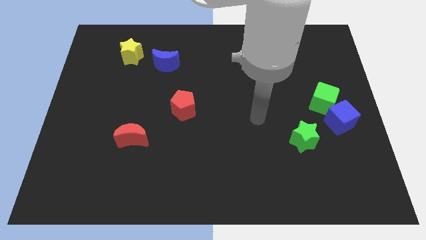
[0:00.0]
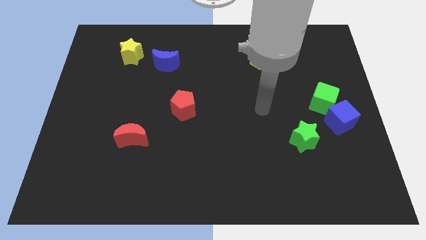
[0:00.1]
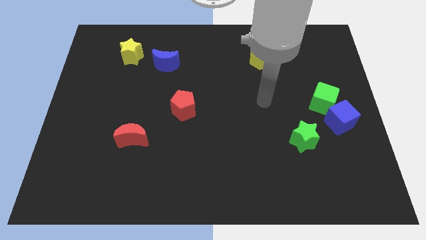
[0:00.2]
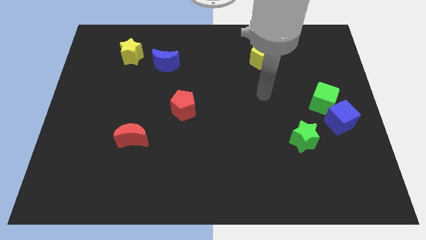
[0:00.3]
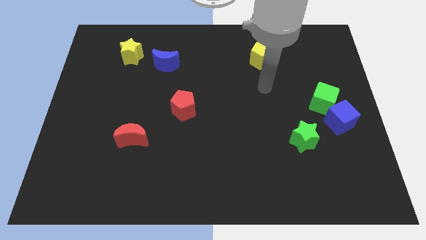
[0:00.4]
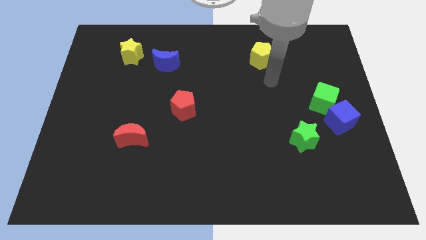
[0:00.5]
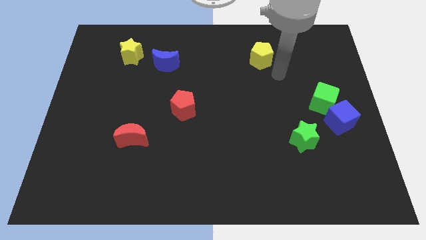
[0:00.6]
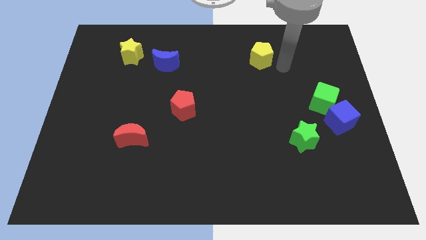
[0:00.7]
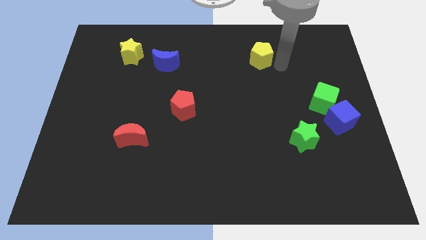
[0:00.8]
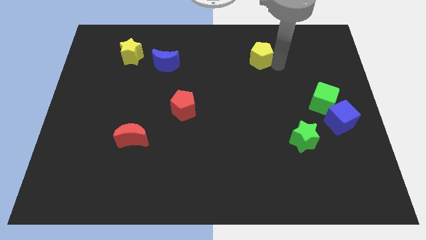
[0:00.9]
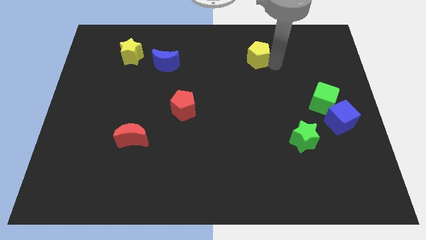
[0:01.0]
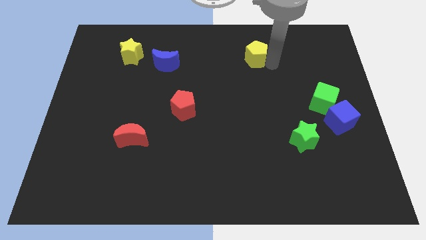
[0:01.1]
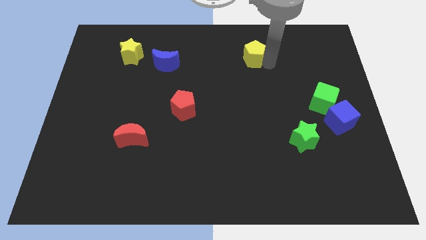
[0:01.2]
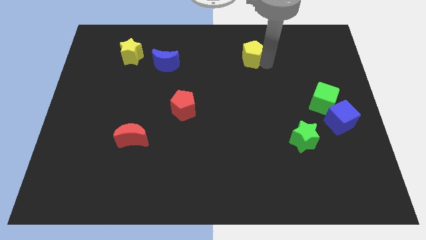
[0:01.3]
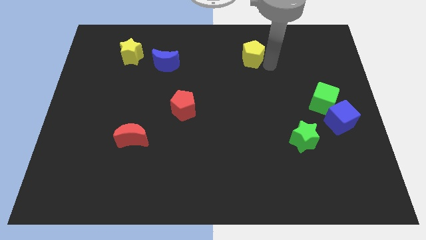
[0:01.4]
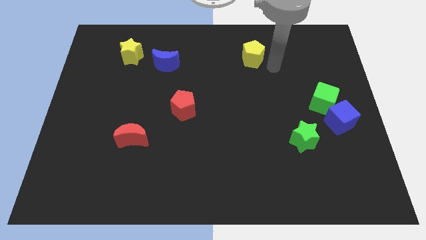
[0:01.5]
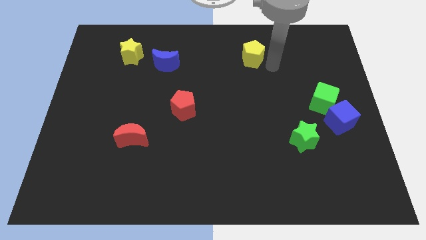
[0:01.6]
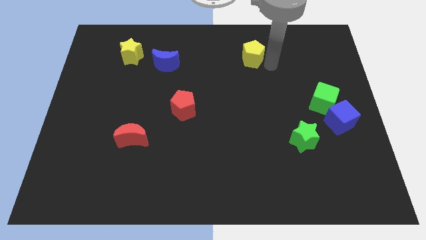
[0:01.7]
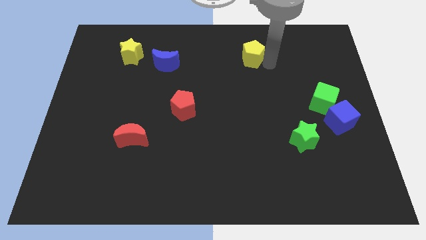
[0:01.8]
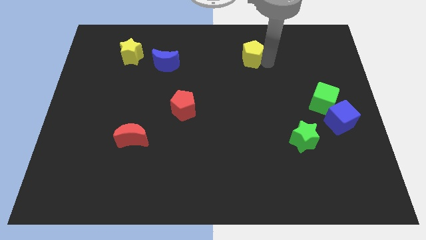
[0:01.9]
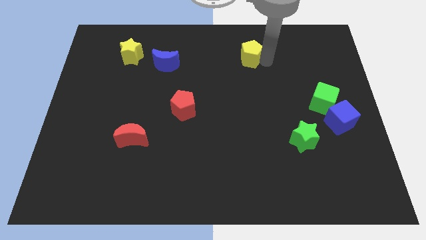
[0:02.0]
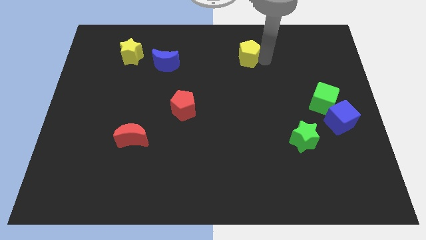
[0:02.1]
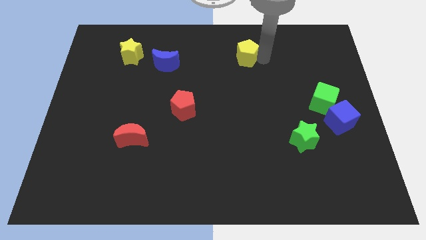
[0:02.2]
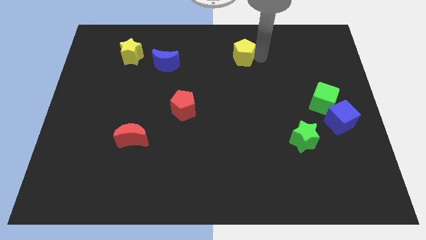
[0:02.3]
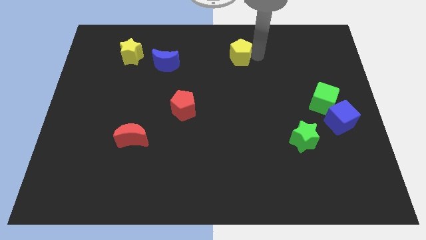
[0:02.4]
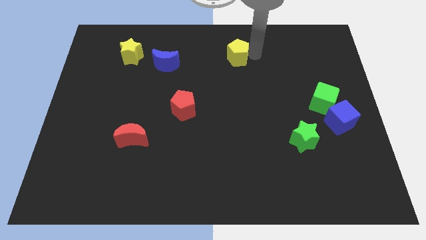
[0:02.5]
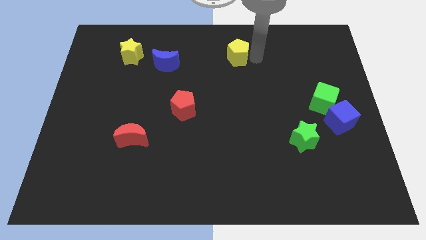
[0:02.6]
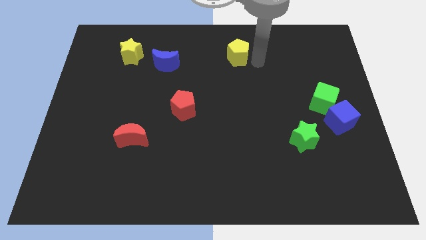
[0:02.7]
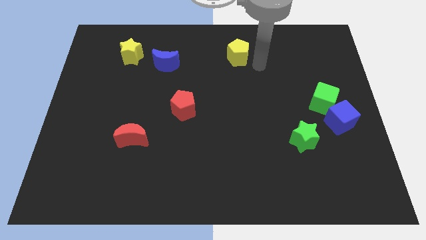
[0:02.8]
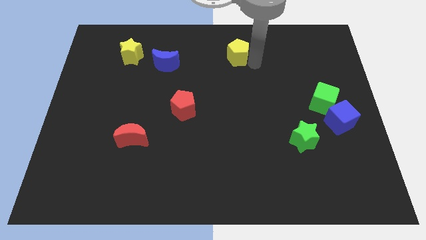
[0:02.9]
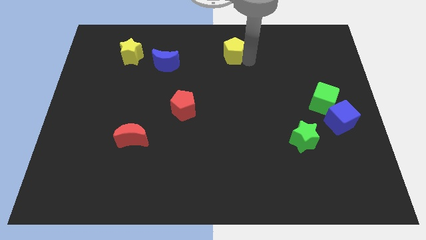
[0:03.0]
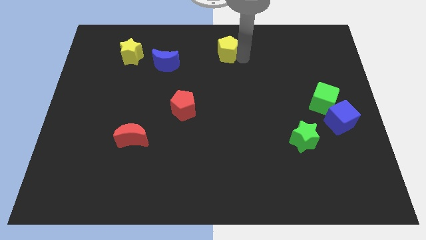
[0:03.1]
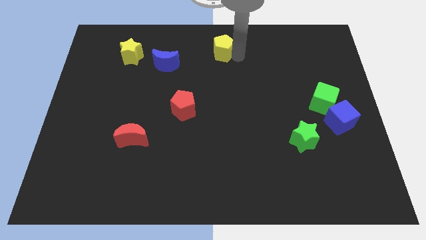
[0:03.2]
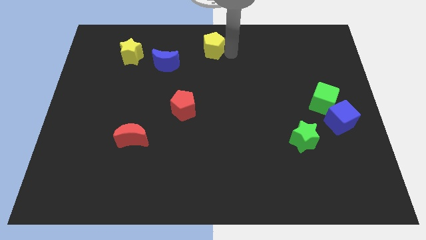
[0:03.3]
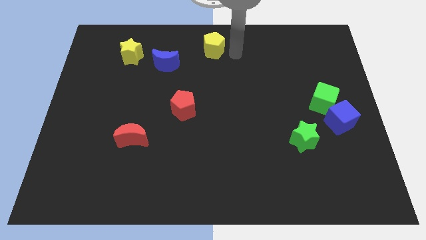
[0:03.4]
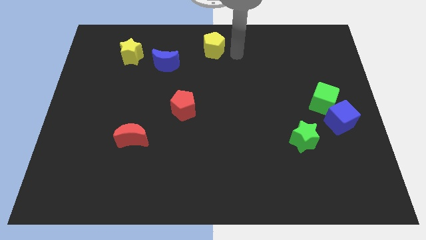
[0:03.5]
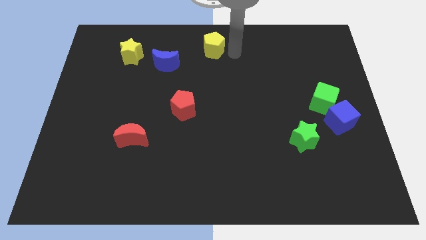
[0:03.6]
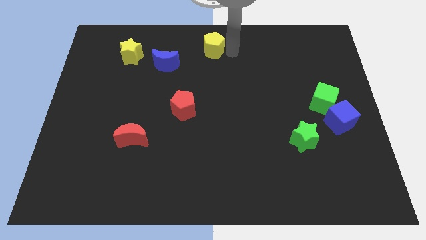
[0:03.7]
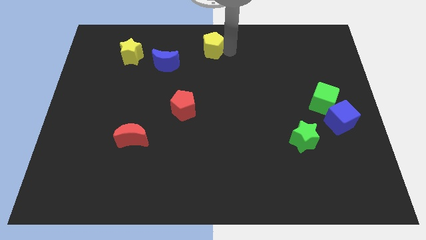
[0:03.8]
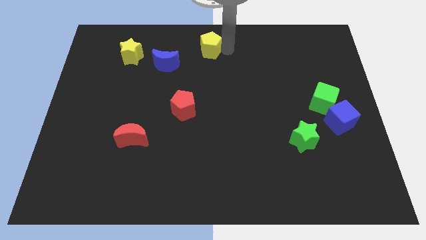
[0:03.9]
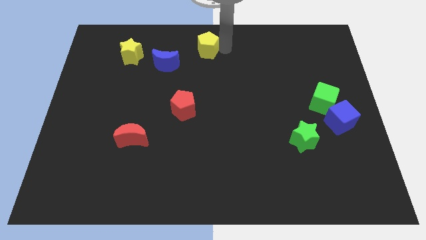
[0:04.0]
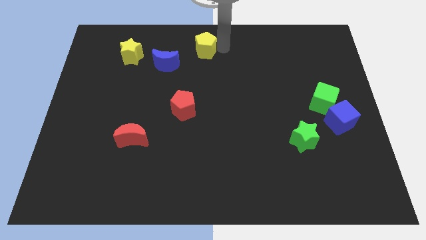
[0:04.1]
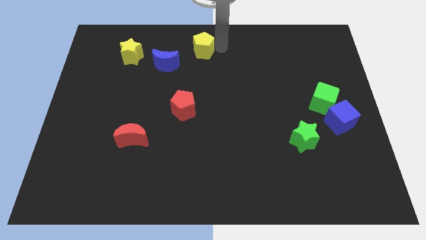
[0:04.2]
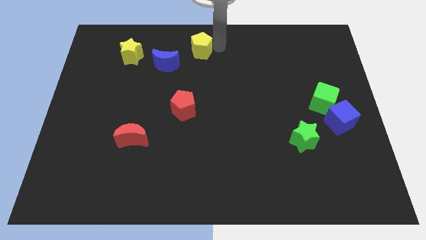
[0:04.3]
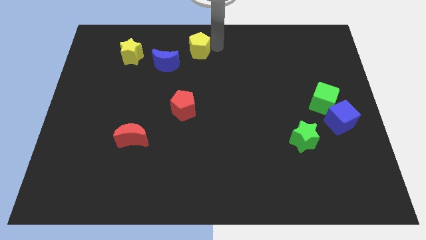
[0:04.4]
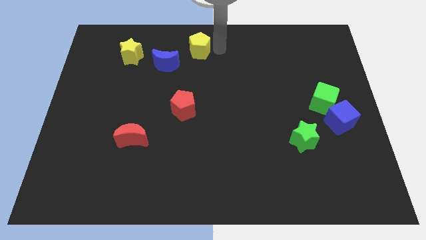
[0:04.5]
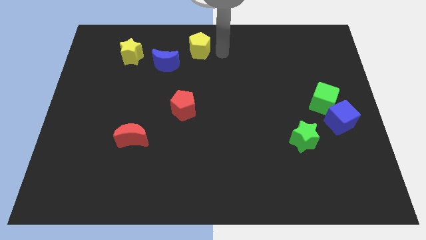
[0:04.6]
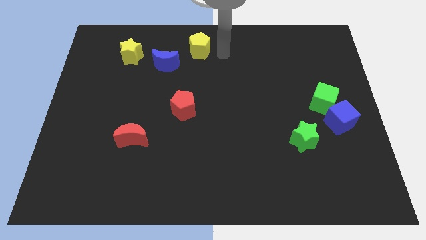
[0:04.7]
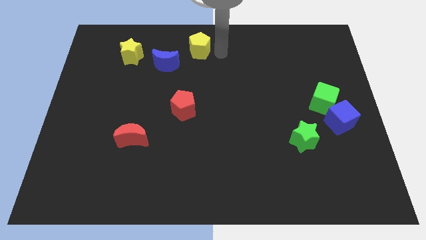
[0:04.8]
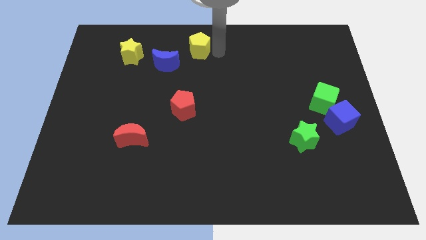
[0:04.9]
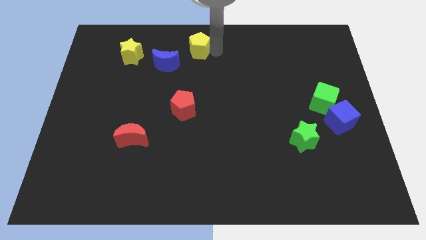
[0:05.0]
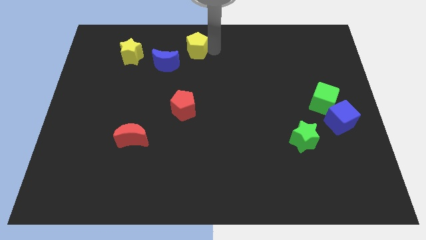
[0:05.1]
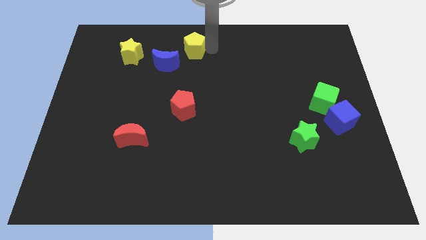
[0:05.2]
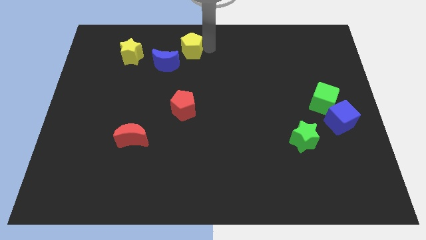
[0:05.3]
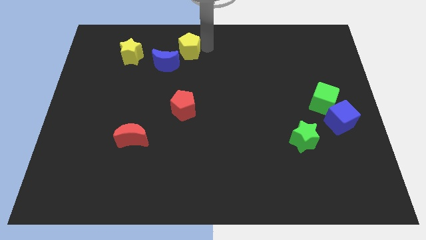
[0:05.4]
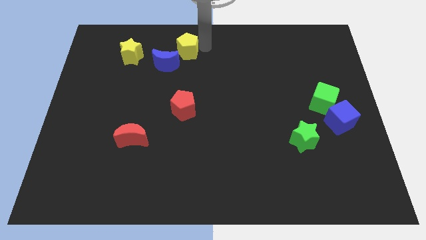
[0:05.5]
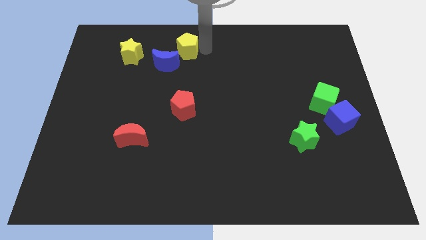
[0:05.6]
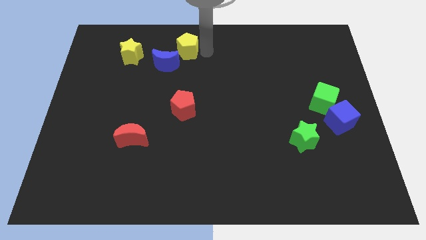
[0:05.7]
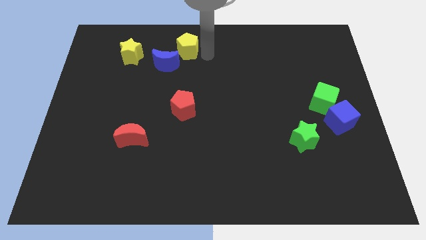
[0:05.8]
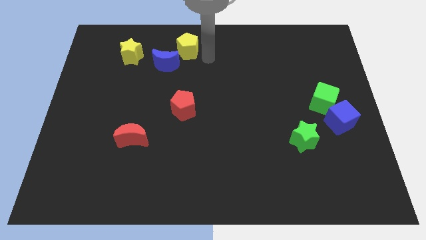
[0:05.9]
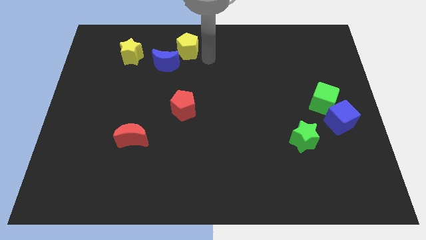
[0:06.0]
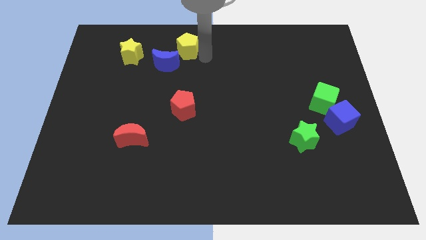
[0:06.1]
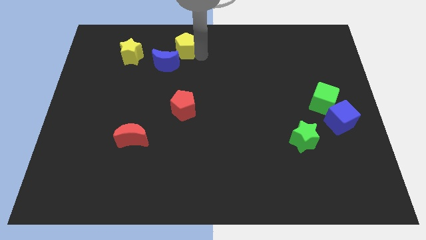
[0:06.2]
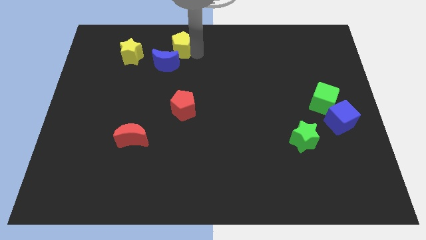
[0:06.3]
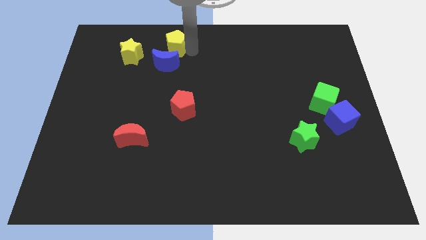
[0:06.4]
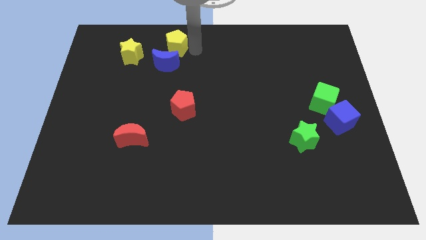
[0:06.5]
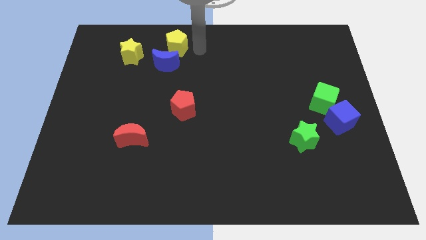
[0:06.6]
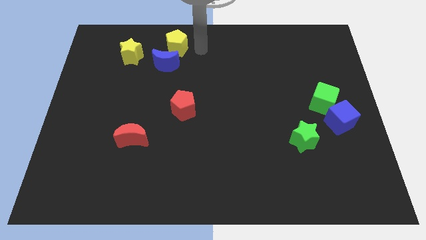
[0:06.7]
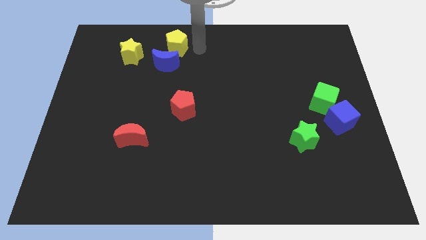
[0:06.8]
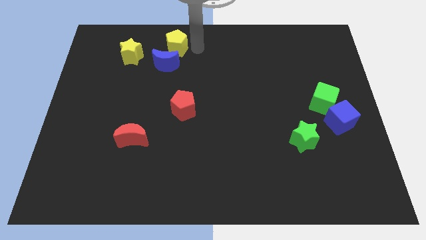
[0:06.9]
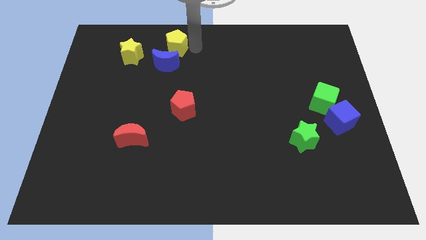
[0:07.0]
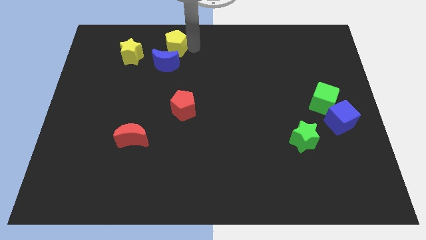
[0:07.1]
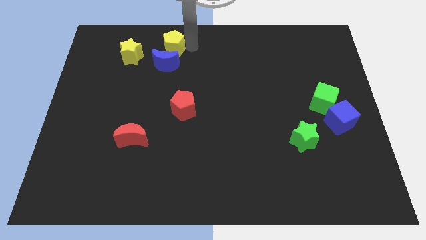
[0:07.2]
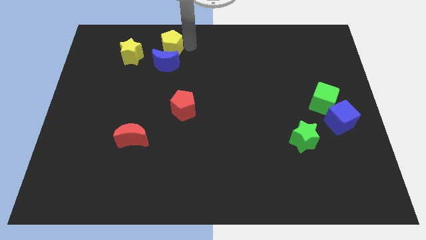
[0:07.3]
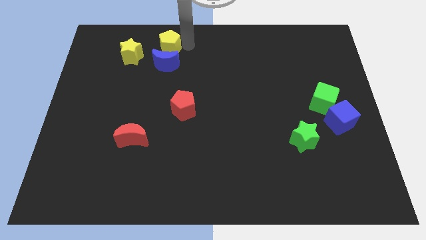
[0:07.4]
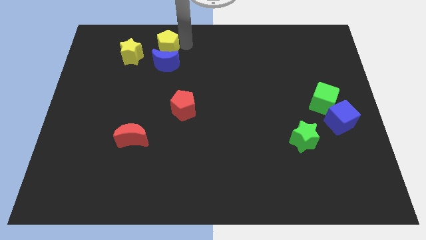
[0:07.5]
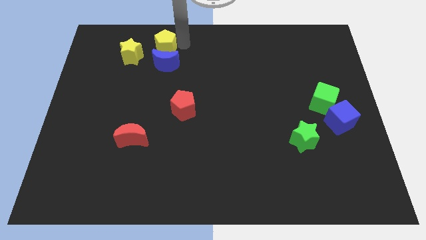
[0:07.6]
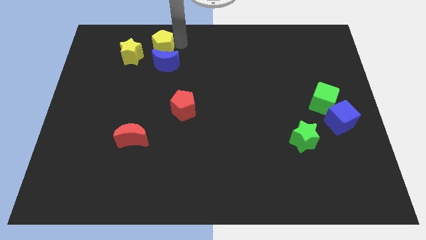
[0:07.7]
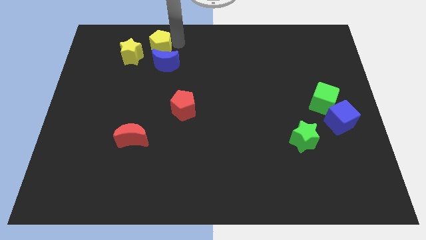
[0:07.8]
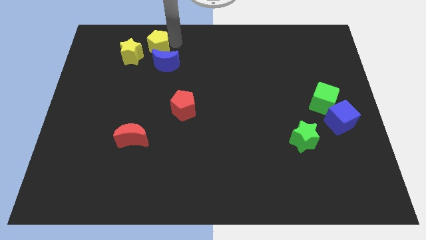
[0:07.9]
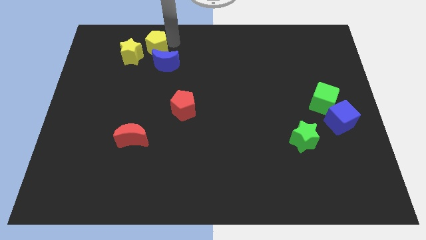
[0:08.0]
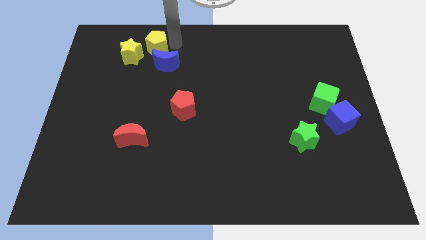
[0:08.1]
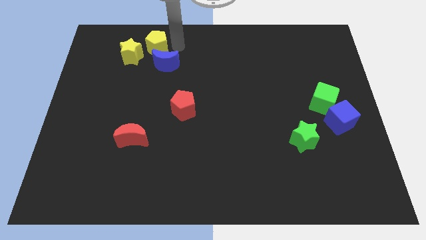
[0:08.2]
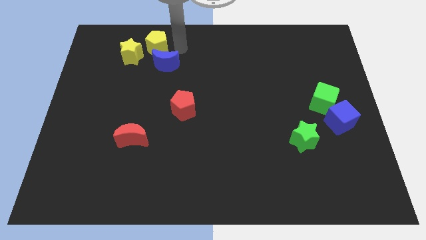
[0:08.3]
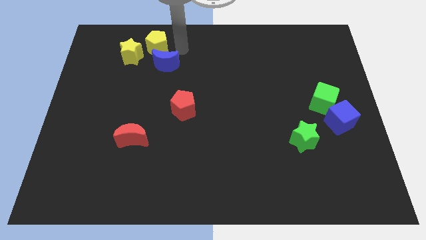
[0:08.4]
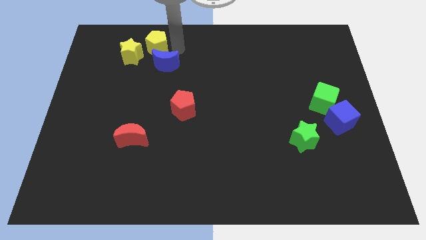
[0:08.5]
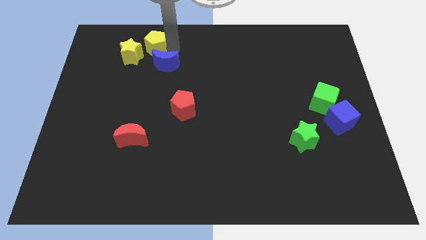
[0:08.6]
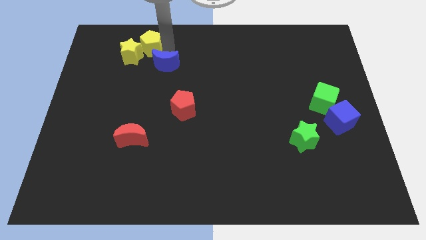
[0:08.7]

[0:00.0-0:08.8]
move the yellow pentagon to the yellow star
